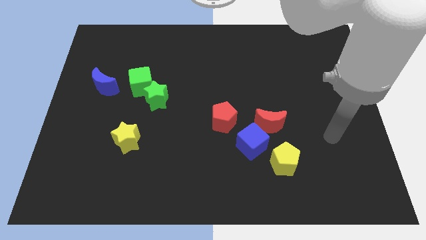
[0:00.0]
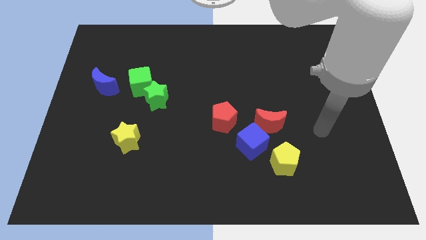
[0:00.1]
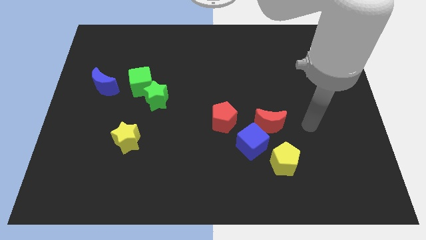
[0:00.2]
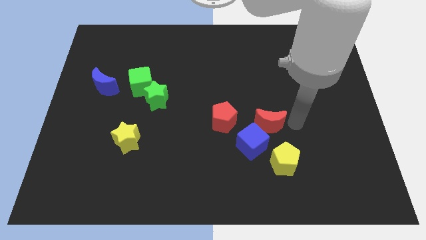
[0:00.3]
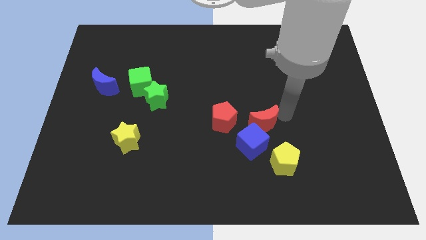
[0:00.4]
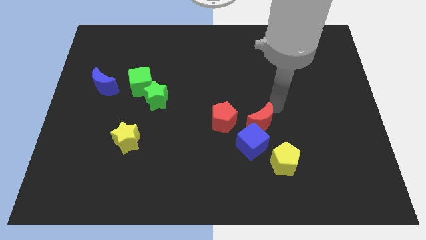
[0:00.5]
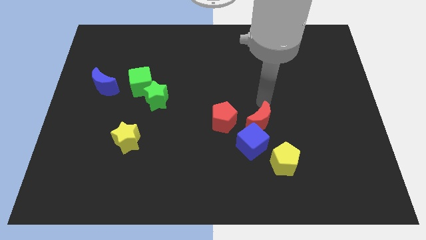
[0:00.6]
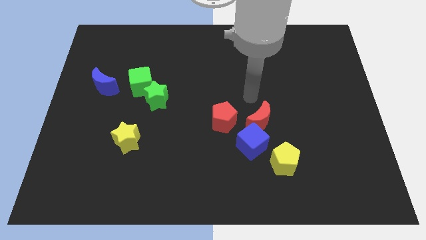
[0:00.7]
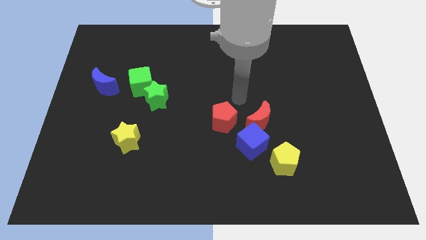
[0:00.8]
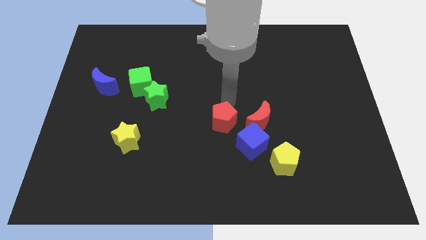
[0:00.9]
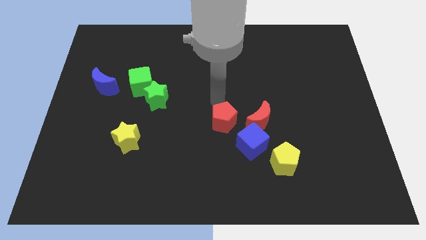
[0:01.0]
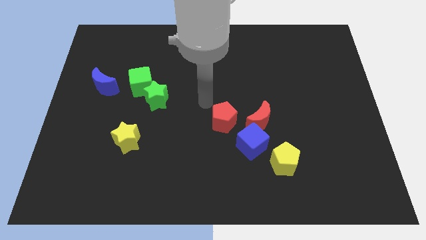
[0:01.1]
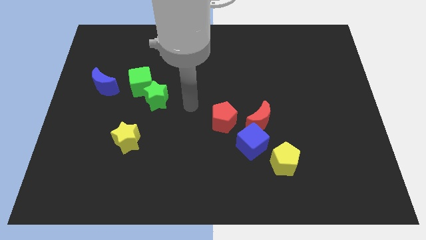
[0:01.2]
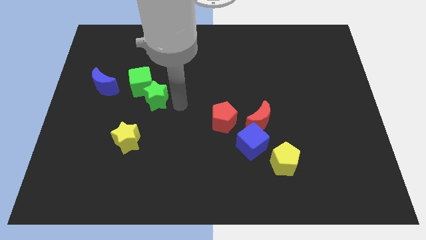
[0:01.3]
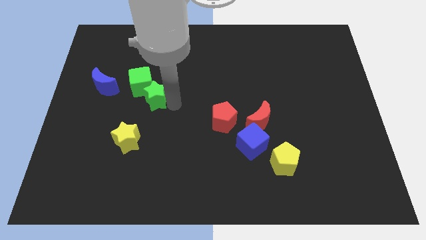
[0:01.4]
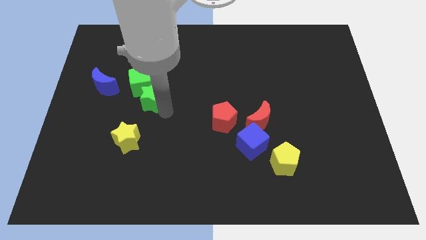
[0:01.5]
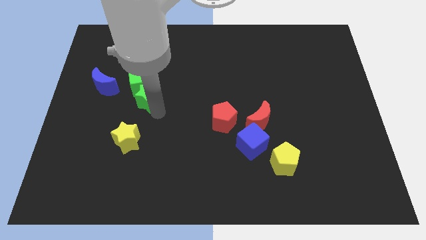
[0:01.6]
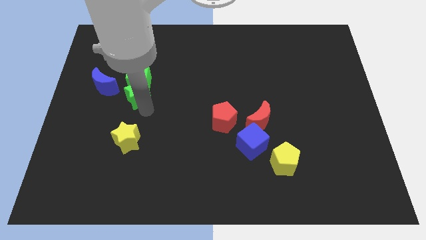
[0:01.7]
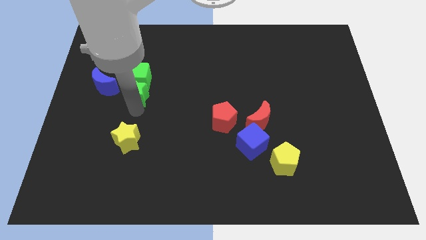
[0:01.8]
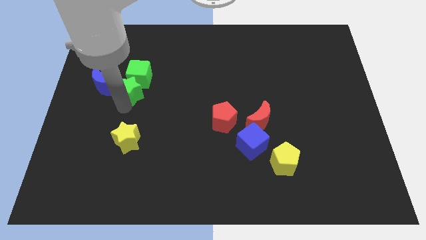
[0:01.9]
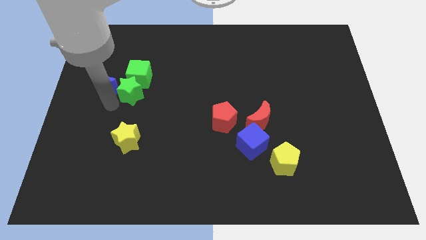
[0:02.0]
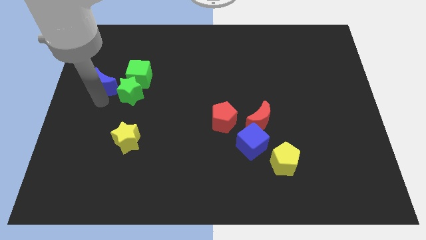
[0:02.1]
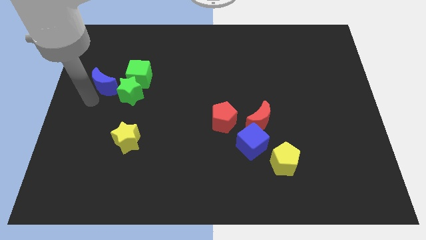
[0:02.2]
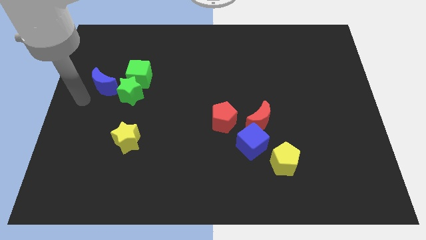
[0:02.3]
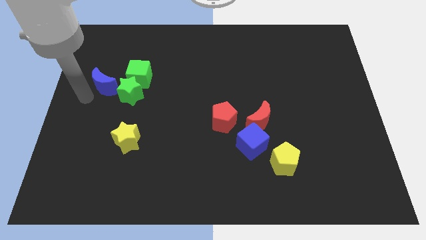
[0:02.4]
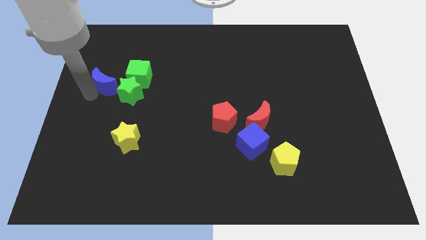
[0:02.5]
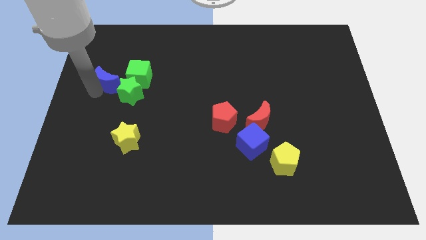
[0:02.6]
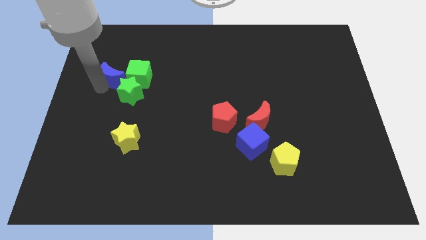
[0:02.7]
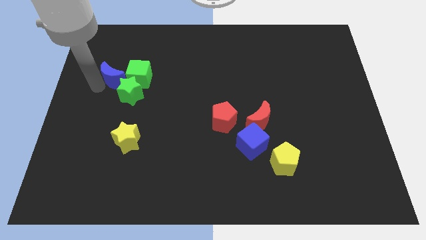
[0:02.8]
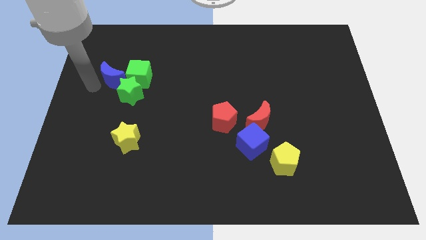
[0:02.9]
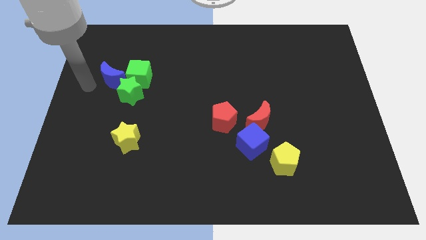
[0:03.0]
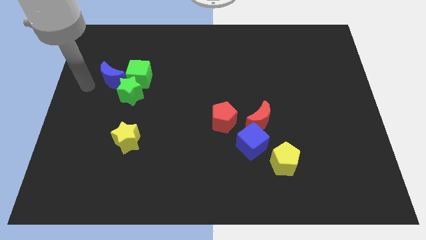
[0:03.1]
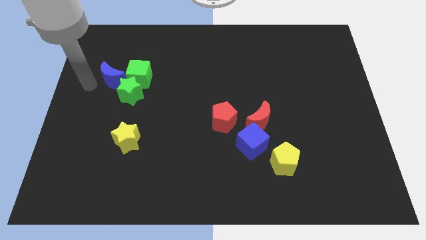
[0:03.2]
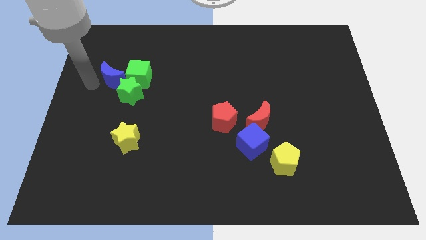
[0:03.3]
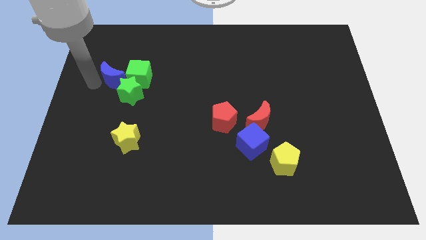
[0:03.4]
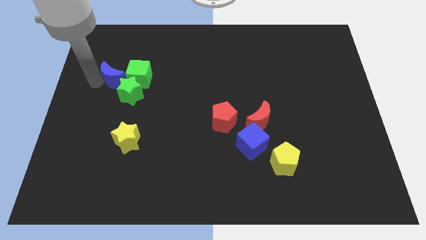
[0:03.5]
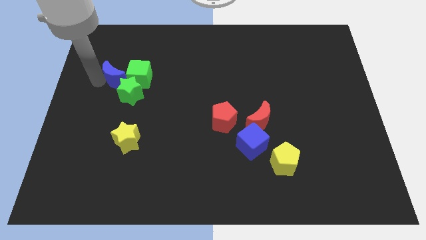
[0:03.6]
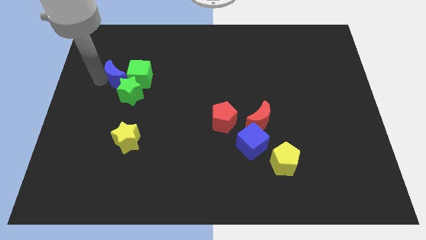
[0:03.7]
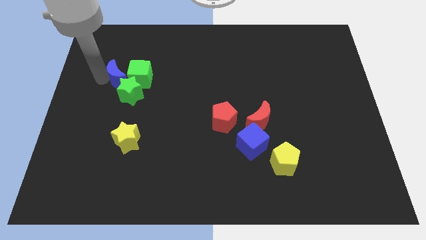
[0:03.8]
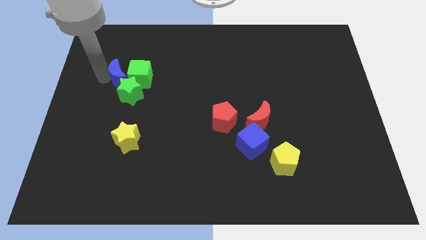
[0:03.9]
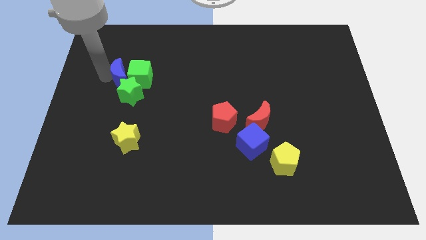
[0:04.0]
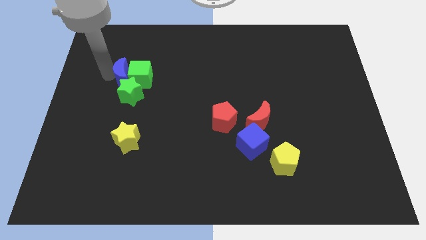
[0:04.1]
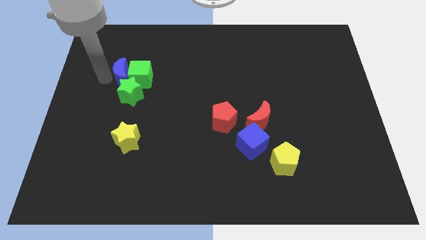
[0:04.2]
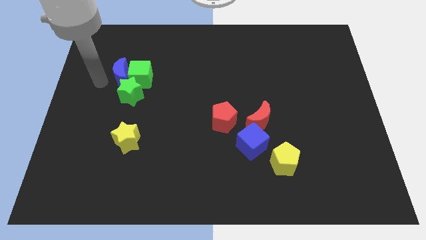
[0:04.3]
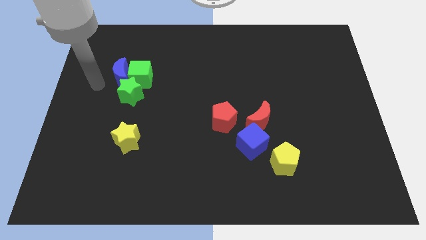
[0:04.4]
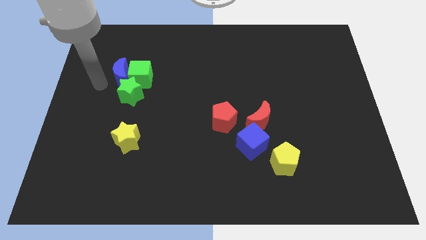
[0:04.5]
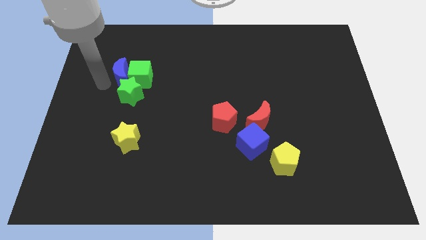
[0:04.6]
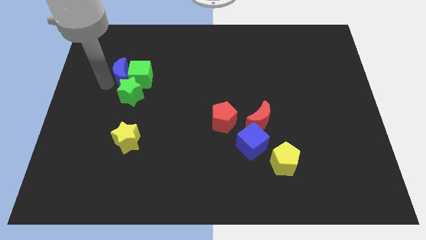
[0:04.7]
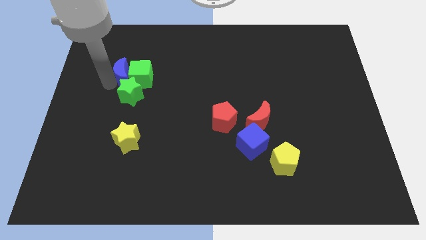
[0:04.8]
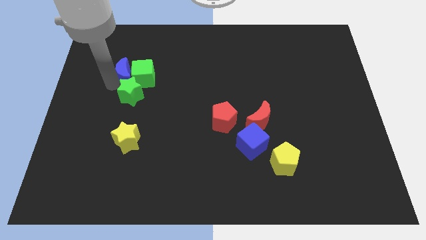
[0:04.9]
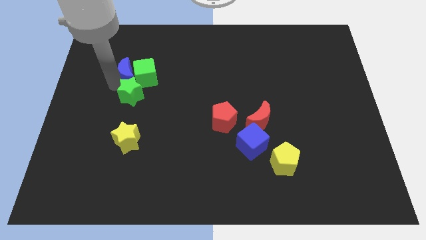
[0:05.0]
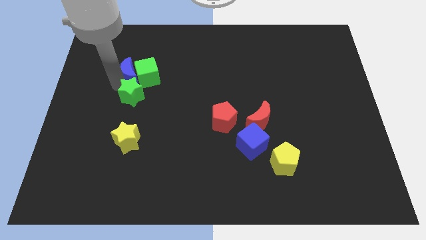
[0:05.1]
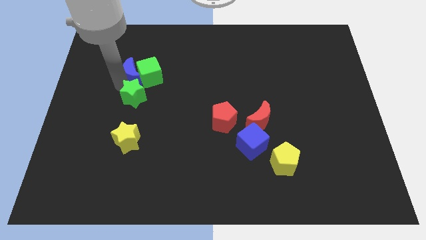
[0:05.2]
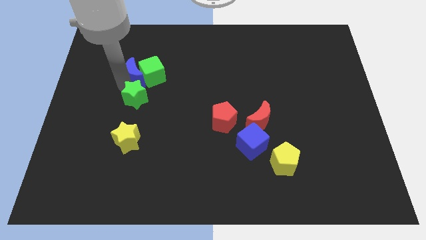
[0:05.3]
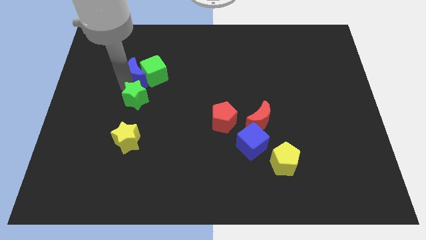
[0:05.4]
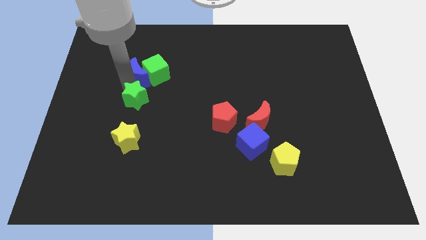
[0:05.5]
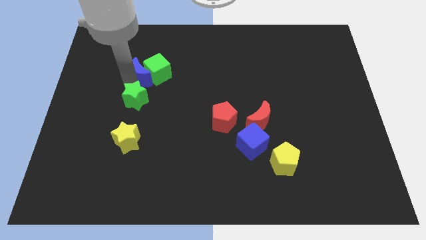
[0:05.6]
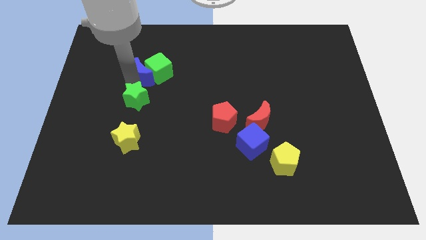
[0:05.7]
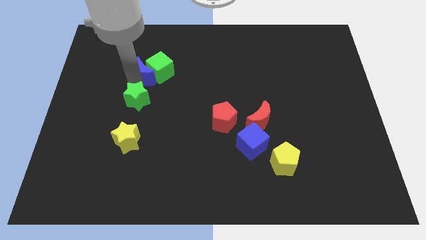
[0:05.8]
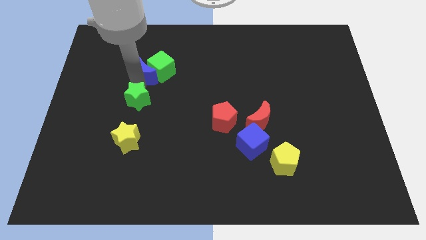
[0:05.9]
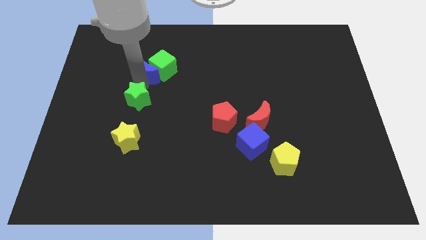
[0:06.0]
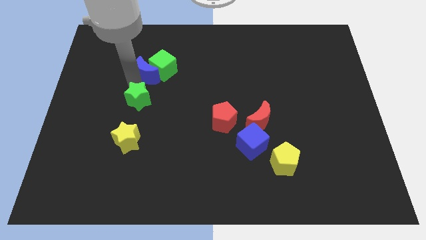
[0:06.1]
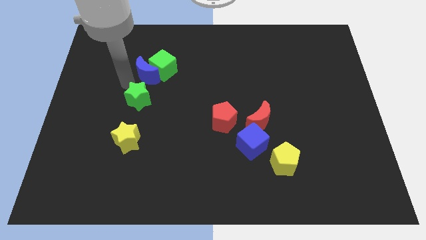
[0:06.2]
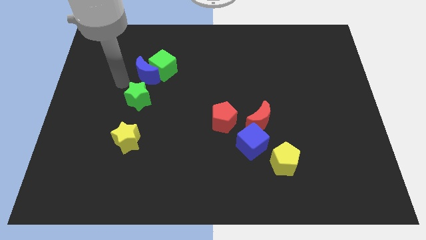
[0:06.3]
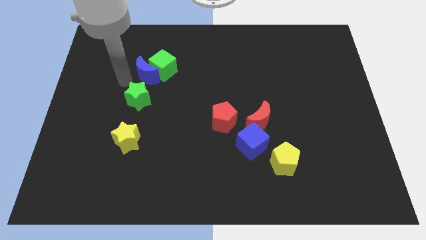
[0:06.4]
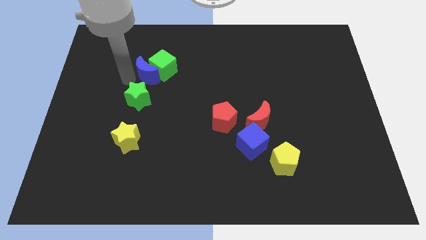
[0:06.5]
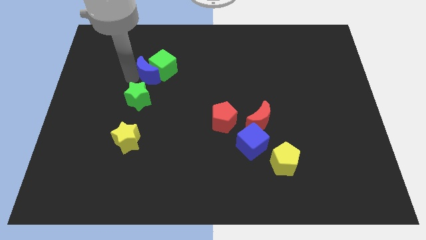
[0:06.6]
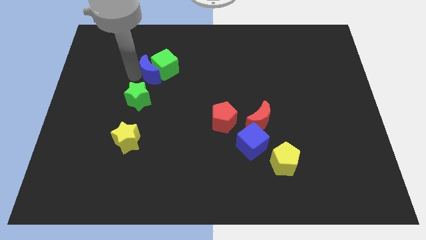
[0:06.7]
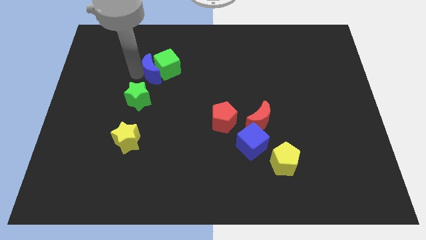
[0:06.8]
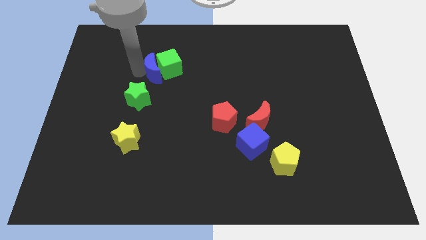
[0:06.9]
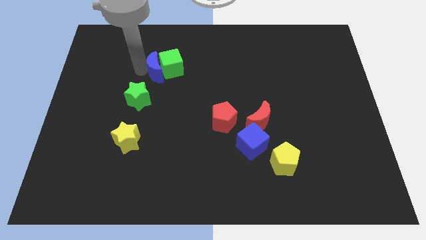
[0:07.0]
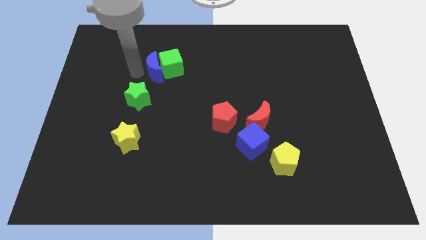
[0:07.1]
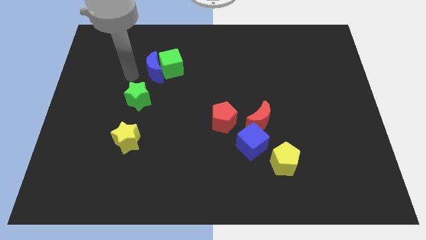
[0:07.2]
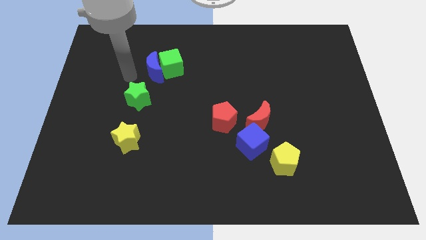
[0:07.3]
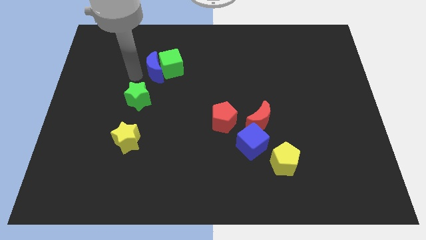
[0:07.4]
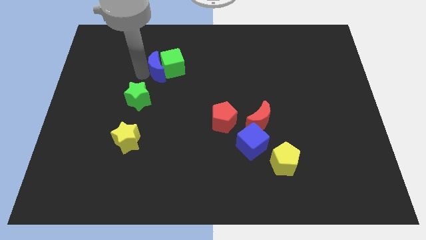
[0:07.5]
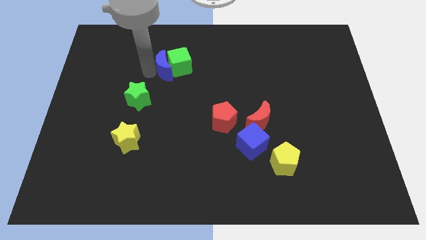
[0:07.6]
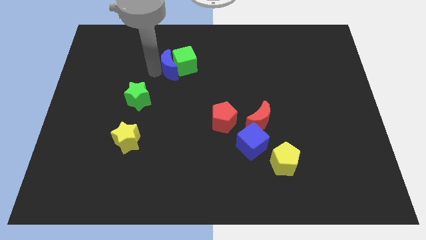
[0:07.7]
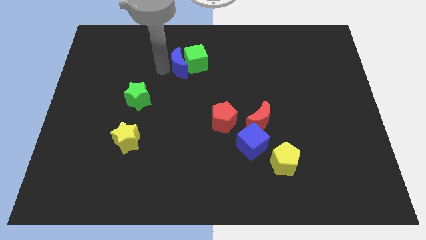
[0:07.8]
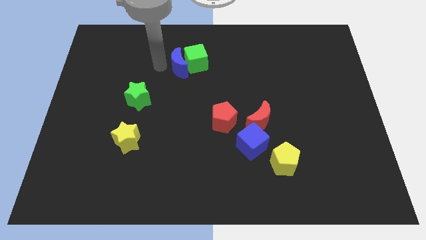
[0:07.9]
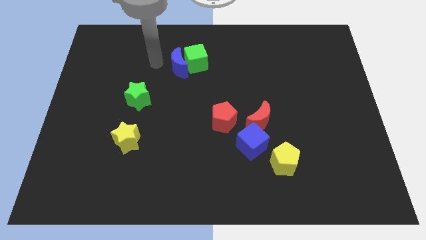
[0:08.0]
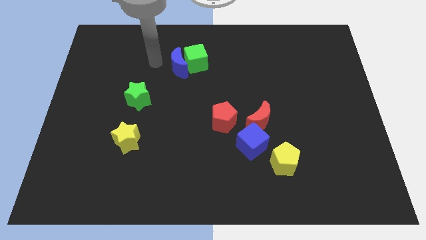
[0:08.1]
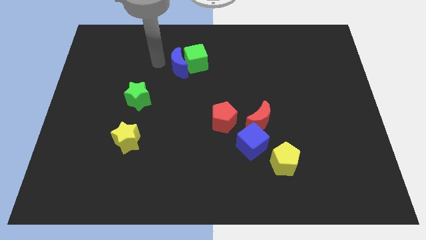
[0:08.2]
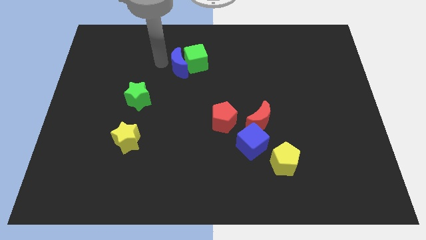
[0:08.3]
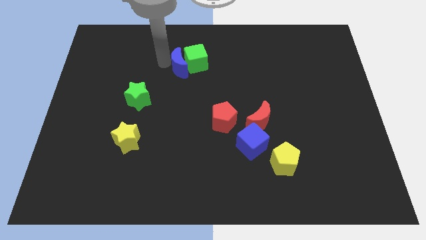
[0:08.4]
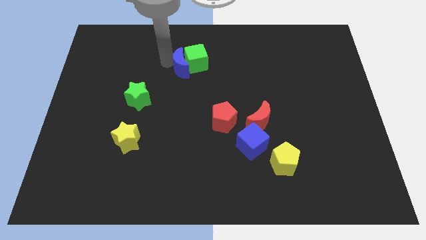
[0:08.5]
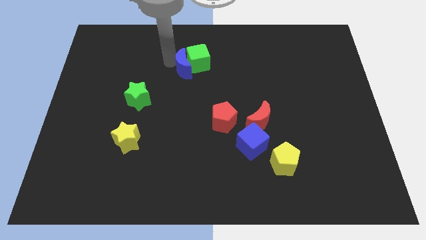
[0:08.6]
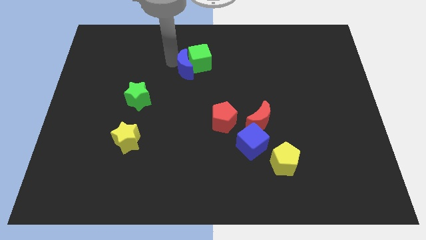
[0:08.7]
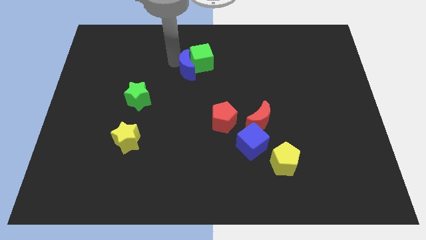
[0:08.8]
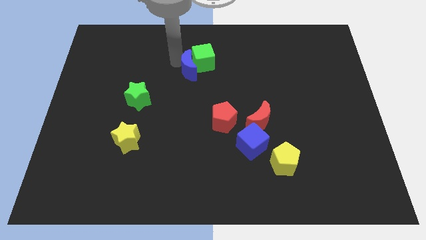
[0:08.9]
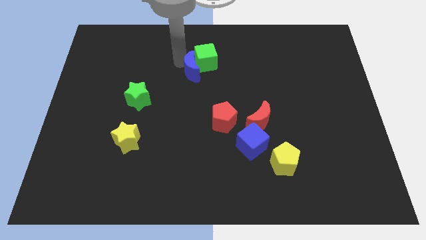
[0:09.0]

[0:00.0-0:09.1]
move the blue moon to the right
